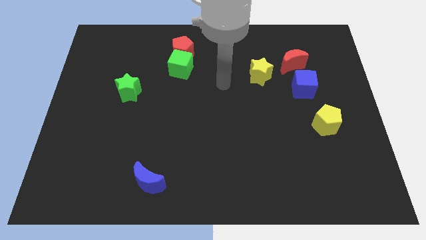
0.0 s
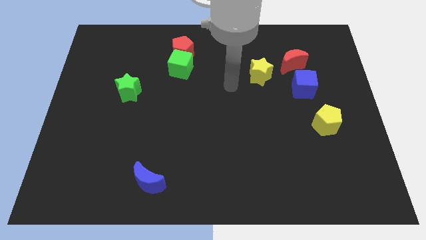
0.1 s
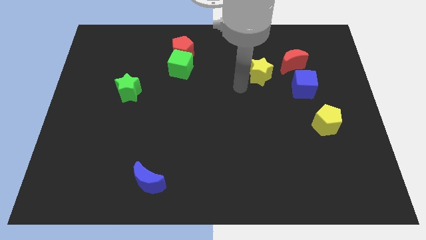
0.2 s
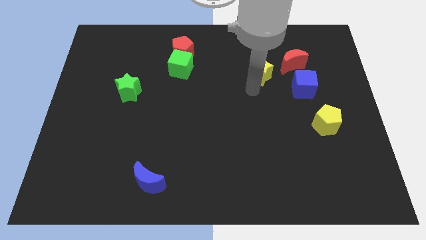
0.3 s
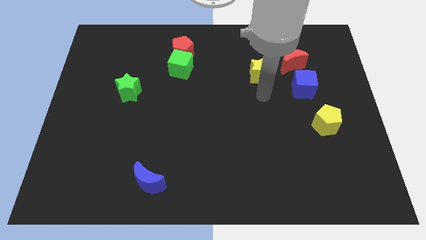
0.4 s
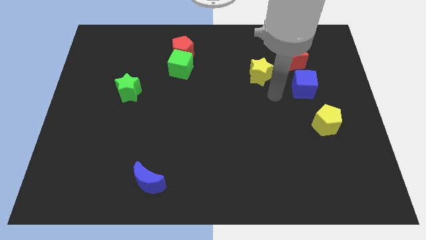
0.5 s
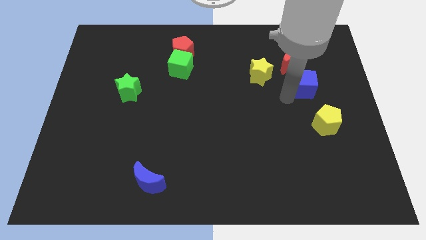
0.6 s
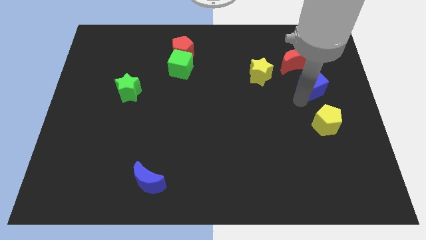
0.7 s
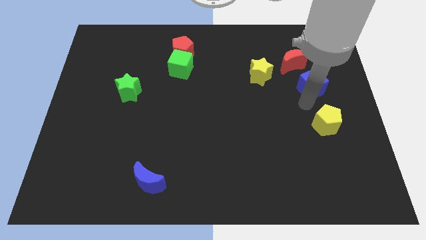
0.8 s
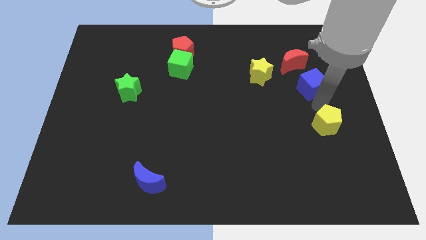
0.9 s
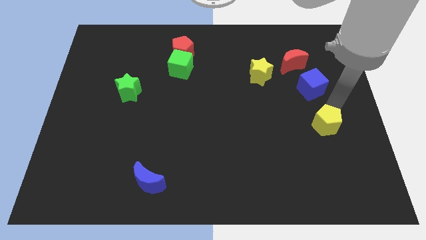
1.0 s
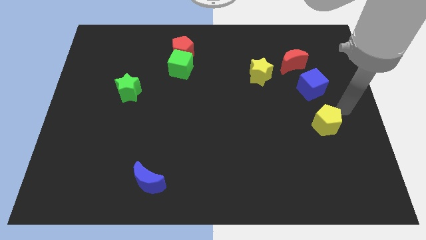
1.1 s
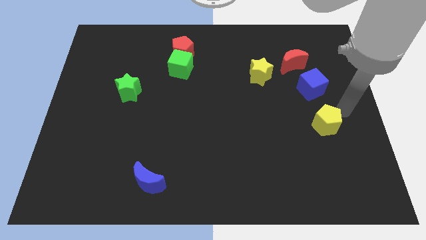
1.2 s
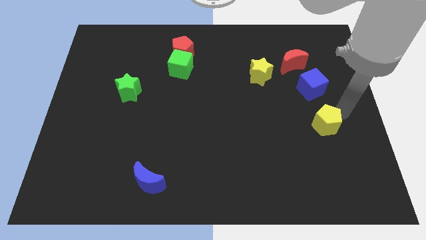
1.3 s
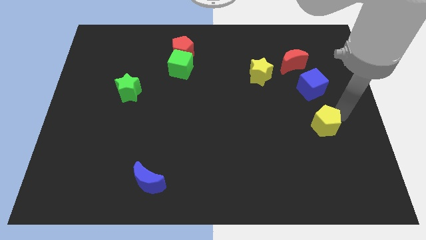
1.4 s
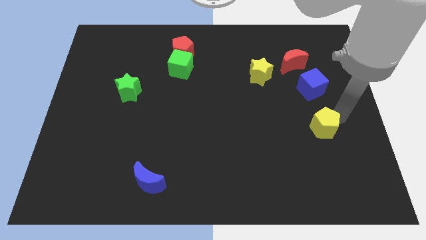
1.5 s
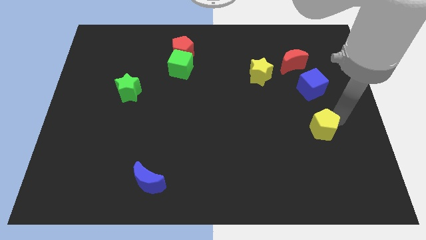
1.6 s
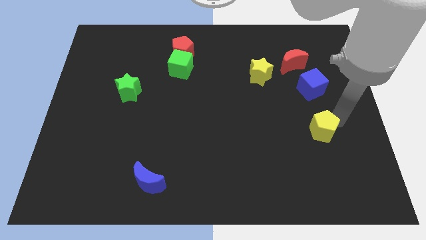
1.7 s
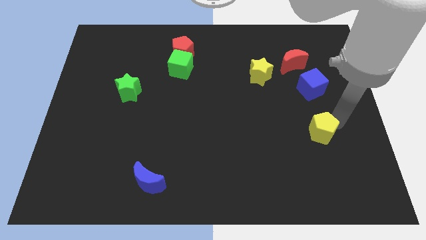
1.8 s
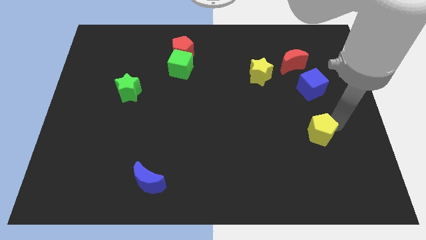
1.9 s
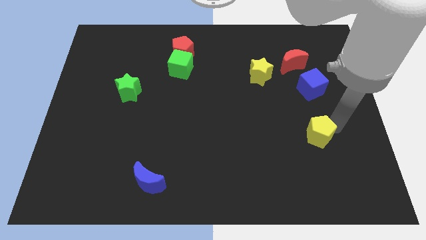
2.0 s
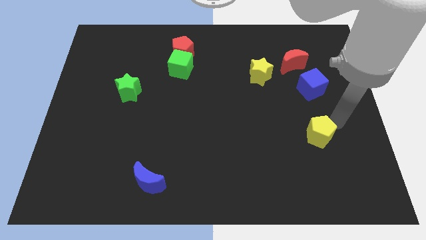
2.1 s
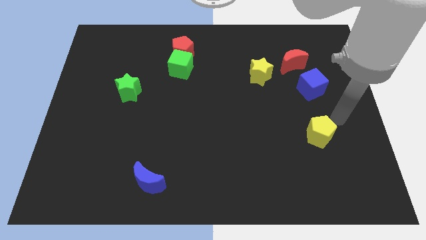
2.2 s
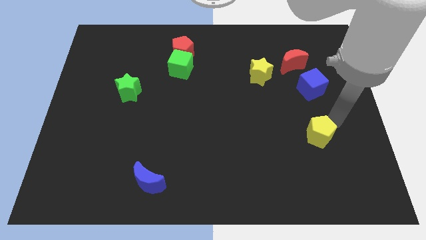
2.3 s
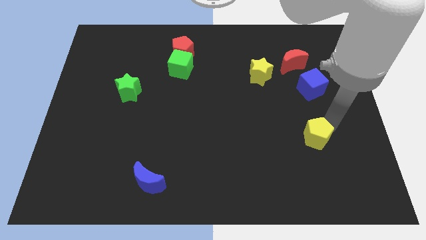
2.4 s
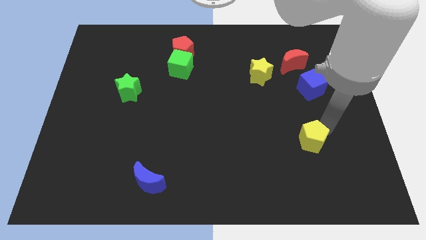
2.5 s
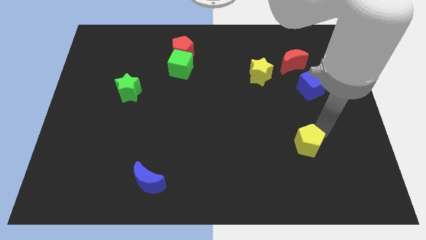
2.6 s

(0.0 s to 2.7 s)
slightly move the yellow pentagon down and to the left

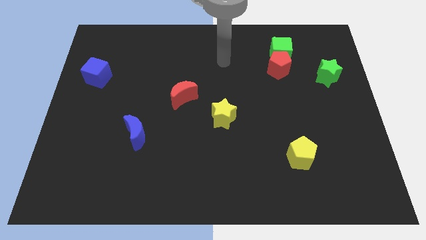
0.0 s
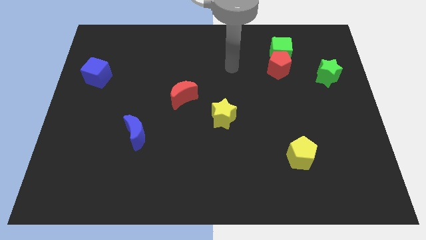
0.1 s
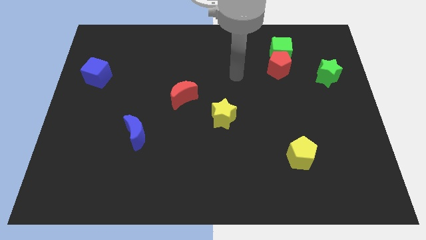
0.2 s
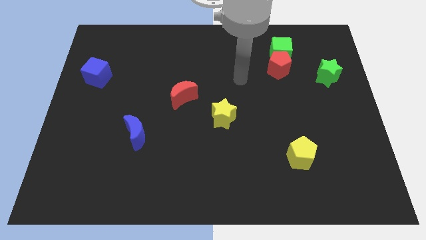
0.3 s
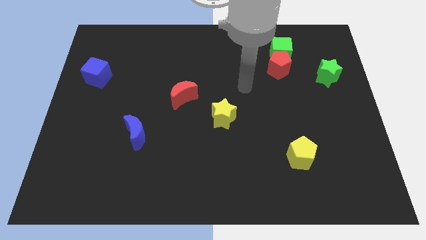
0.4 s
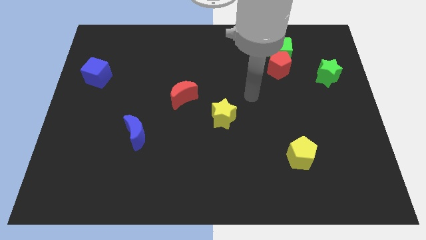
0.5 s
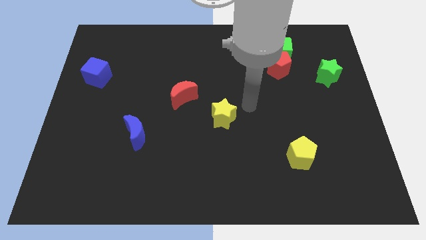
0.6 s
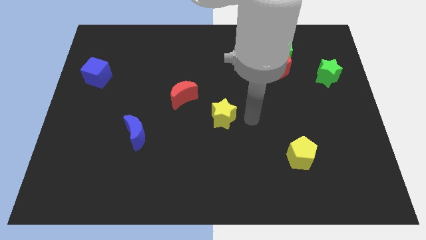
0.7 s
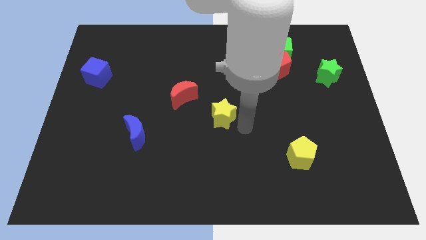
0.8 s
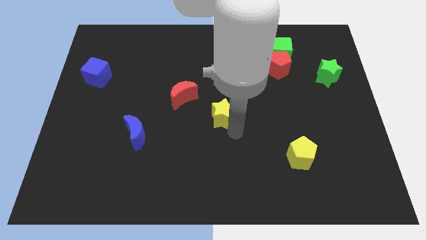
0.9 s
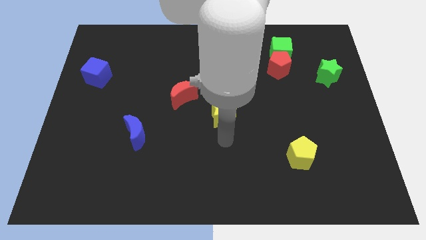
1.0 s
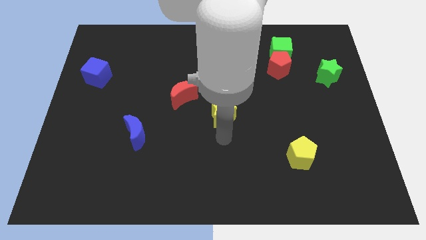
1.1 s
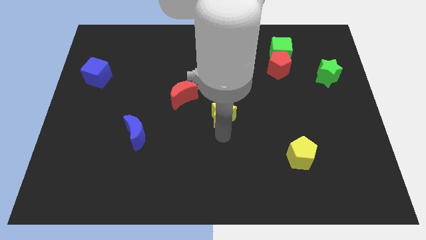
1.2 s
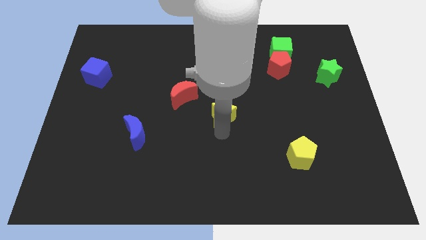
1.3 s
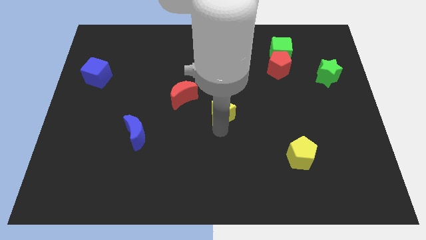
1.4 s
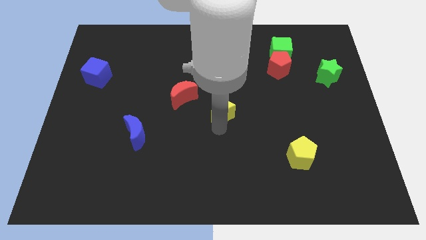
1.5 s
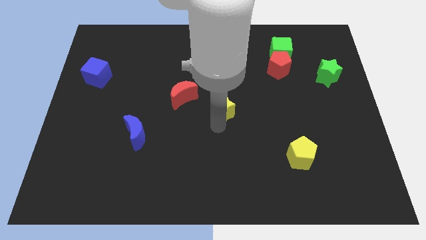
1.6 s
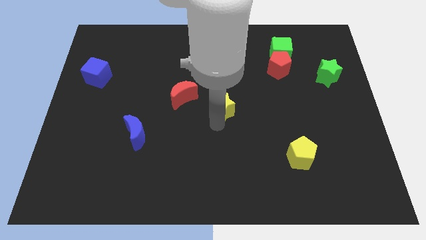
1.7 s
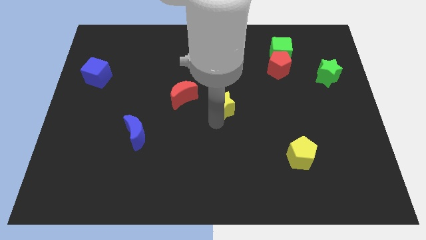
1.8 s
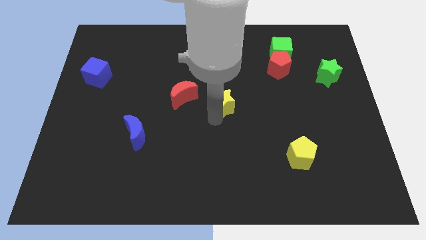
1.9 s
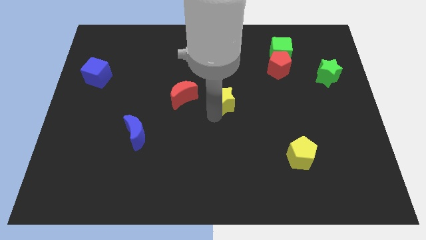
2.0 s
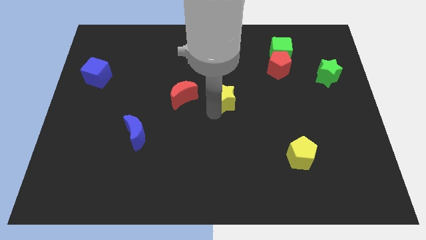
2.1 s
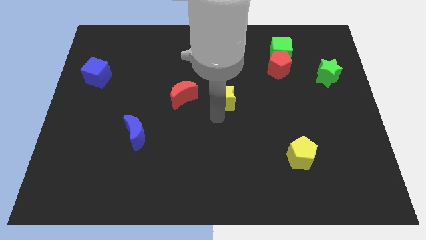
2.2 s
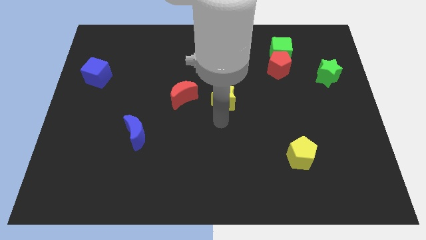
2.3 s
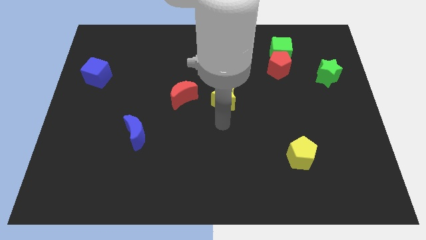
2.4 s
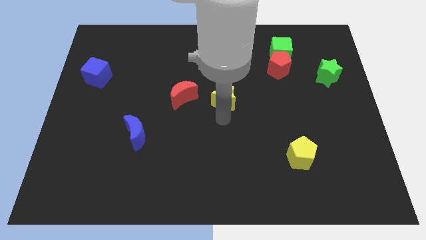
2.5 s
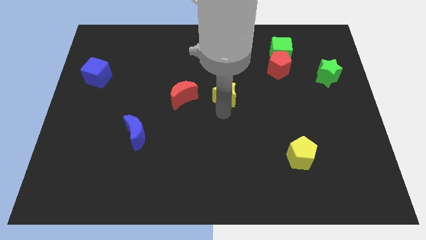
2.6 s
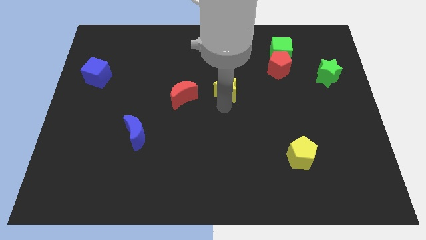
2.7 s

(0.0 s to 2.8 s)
push the yellow star upwards a little

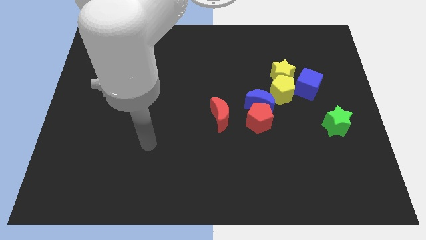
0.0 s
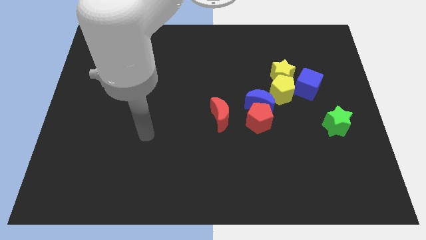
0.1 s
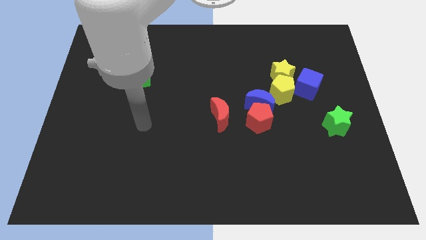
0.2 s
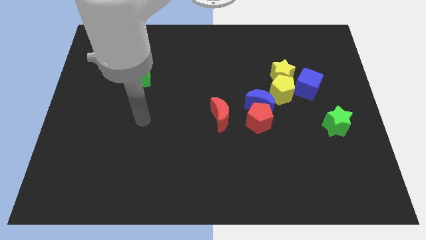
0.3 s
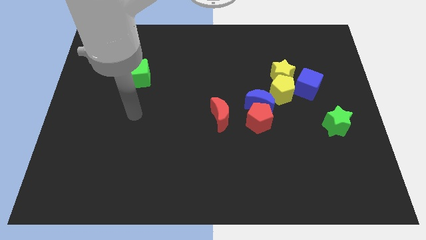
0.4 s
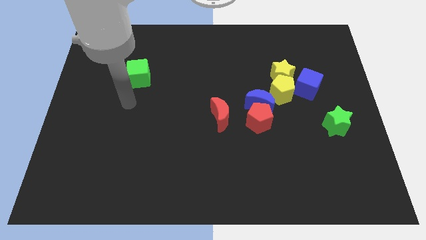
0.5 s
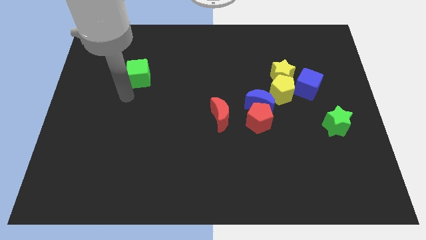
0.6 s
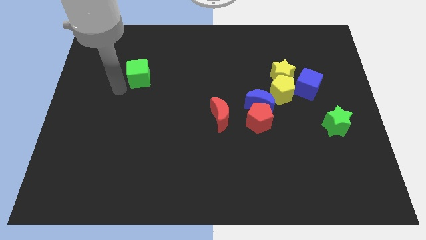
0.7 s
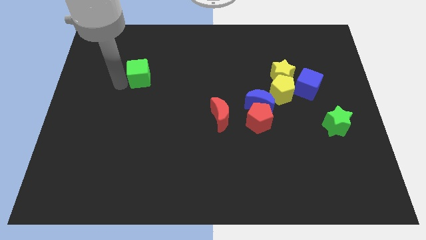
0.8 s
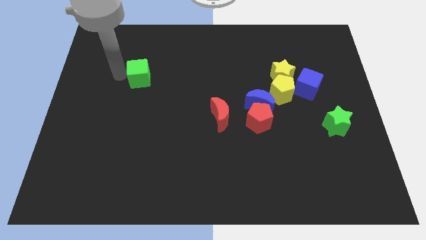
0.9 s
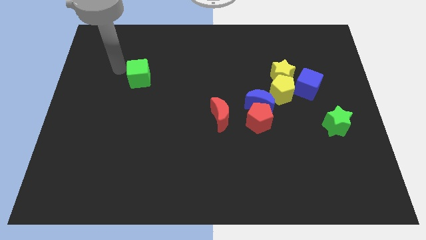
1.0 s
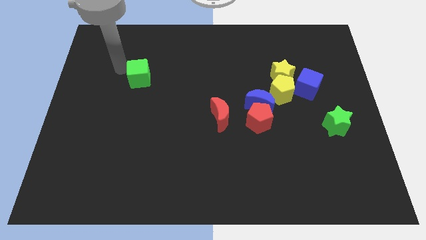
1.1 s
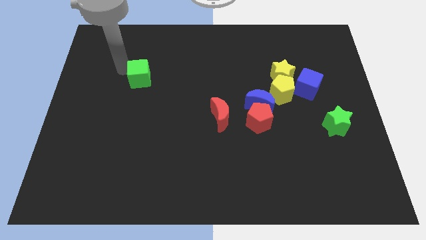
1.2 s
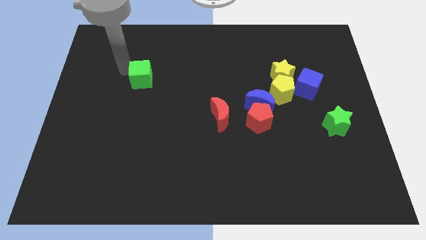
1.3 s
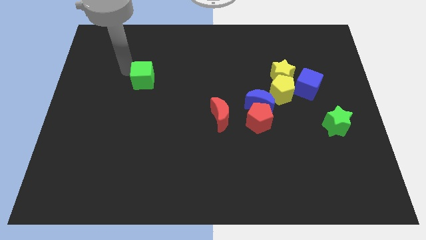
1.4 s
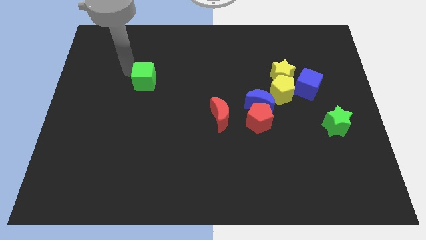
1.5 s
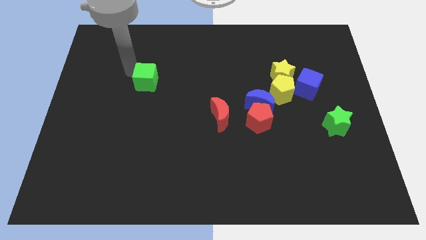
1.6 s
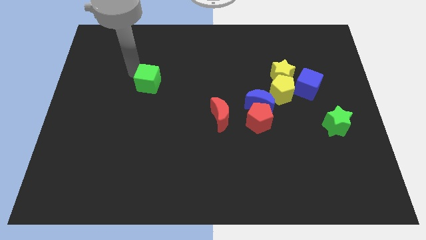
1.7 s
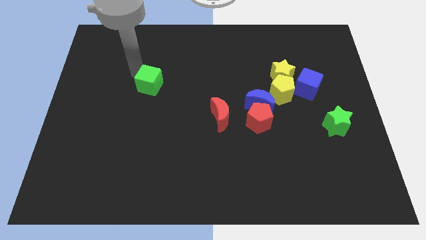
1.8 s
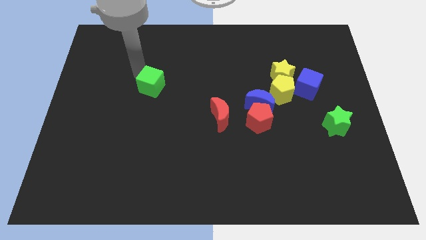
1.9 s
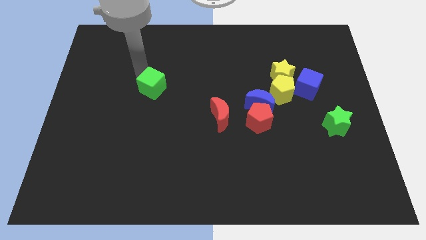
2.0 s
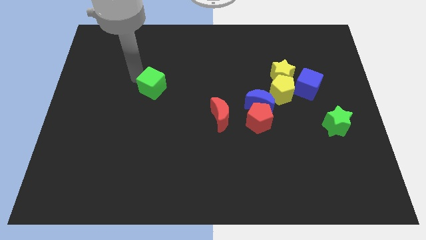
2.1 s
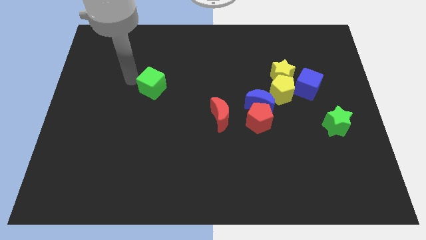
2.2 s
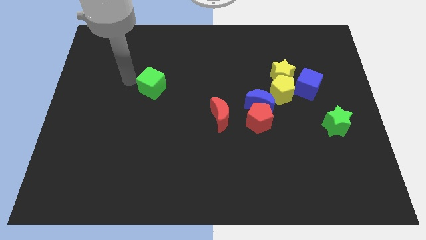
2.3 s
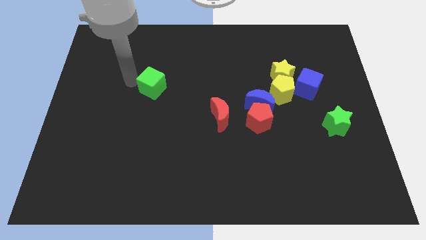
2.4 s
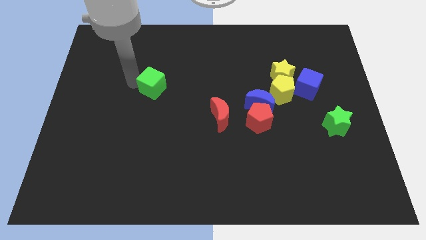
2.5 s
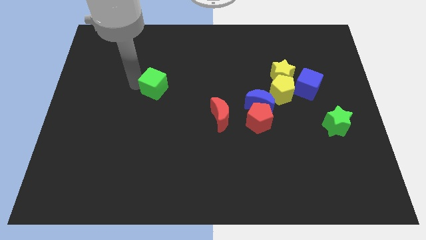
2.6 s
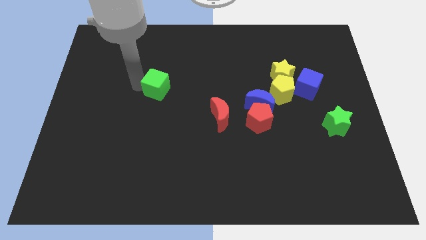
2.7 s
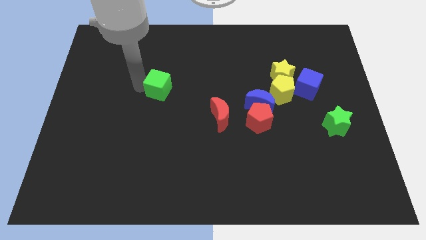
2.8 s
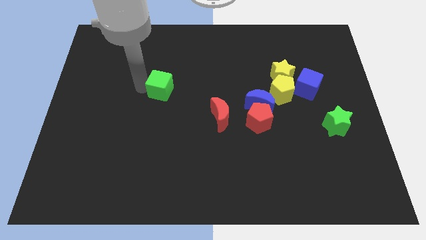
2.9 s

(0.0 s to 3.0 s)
push the green cube downwards and right a little
